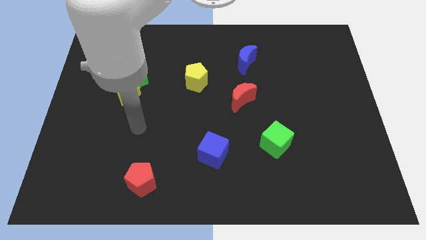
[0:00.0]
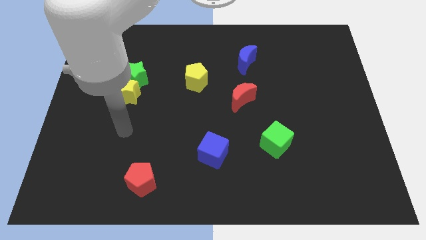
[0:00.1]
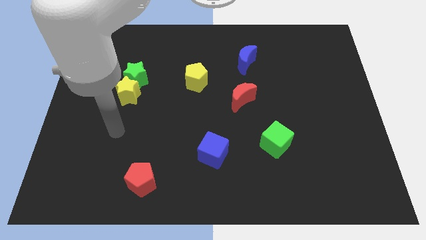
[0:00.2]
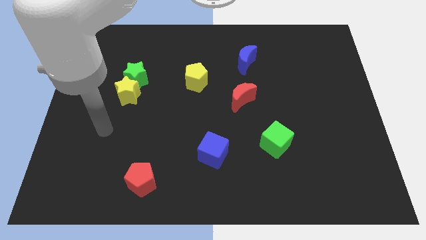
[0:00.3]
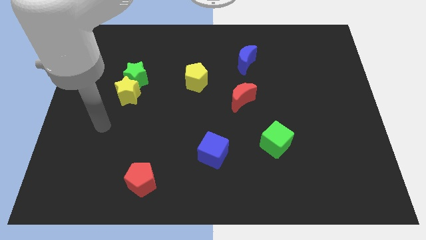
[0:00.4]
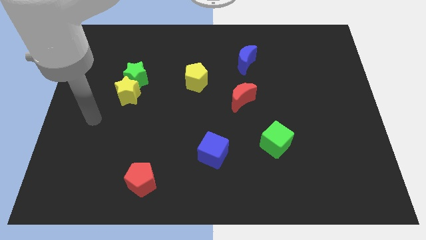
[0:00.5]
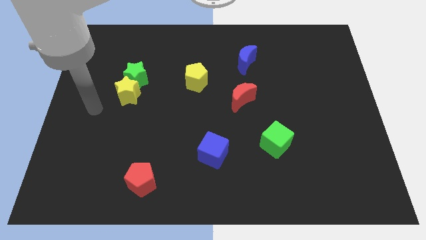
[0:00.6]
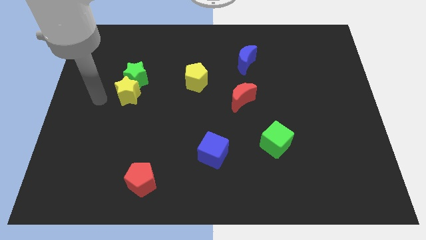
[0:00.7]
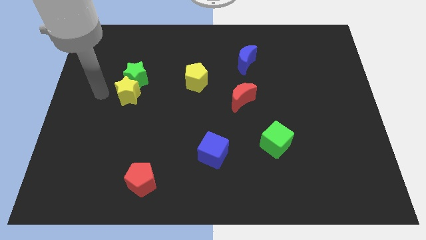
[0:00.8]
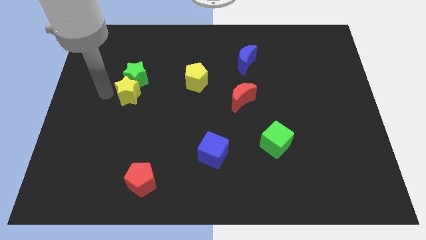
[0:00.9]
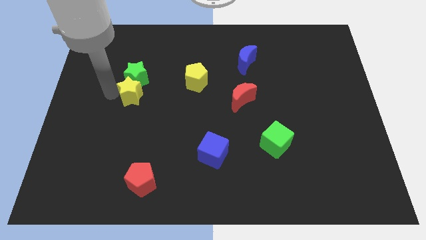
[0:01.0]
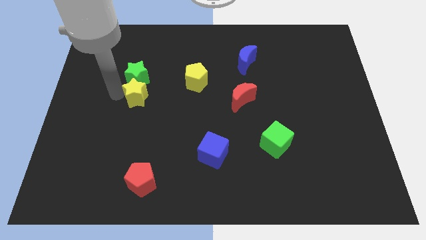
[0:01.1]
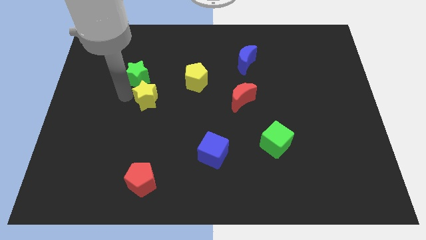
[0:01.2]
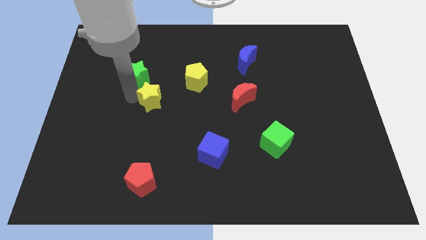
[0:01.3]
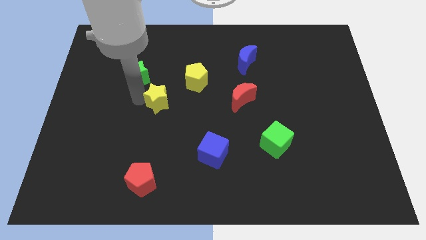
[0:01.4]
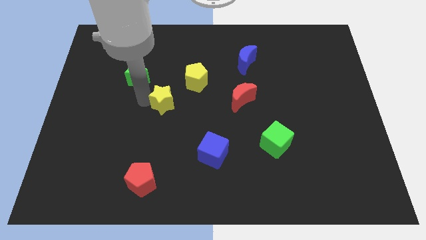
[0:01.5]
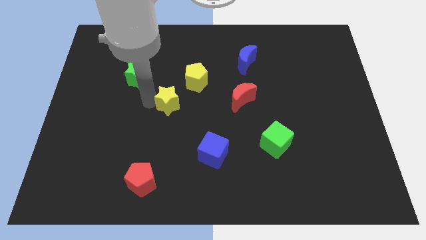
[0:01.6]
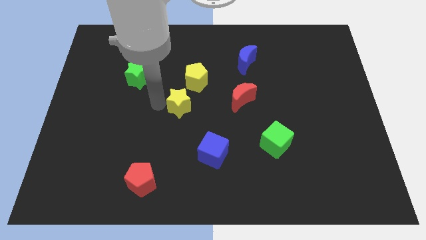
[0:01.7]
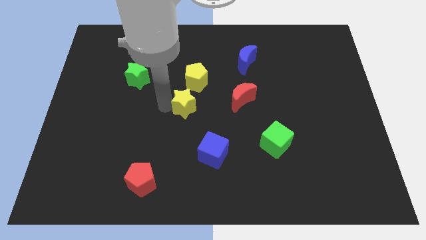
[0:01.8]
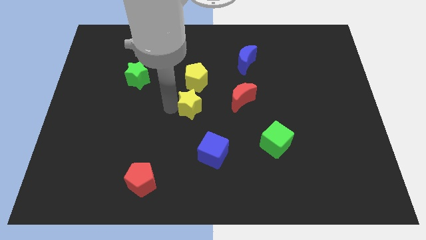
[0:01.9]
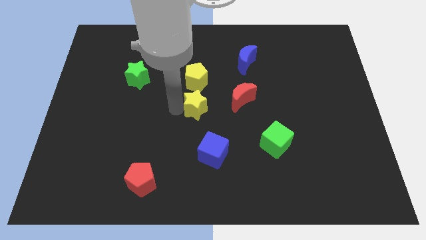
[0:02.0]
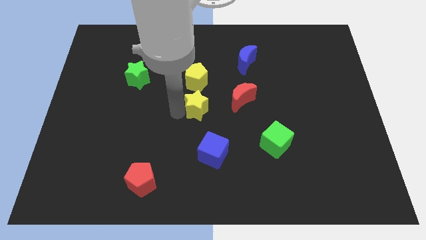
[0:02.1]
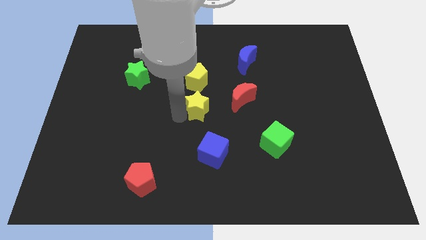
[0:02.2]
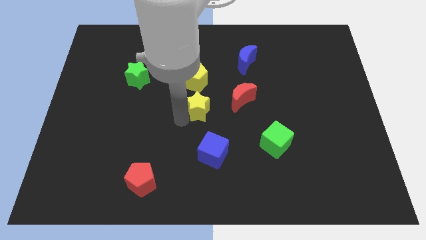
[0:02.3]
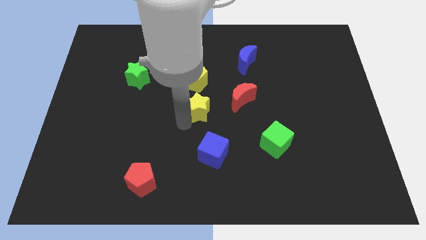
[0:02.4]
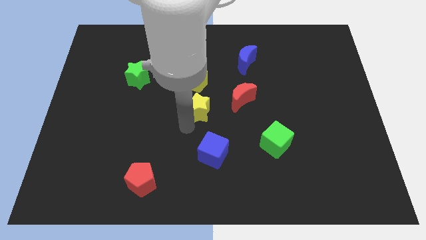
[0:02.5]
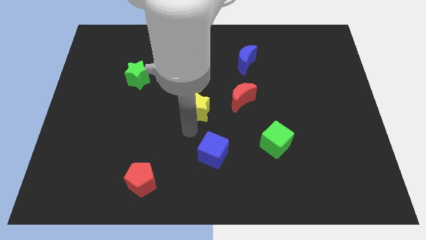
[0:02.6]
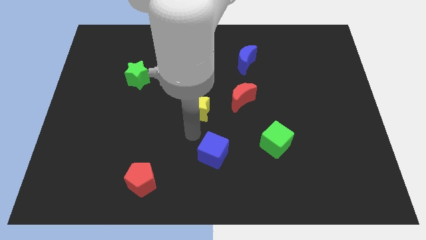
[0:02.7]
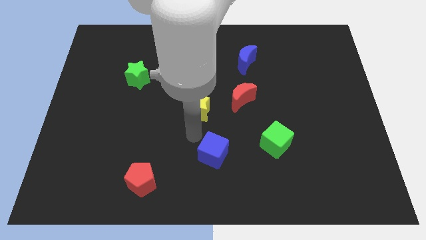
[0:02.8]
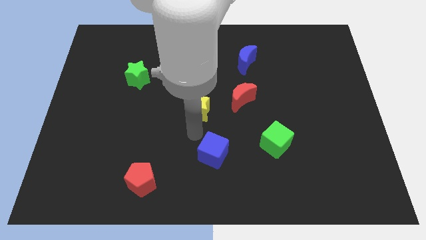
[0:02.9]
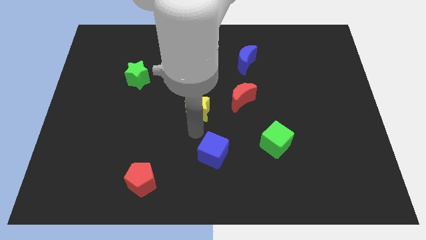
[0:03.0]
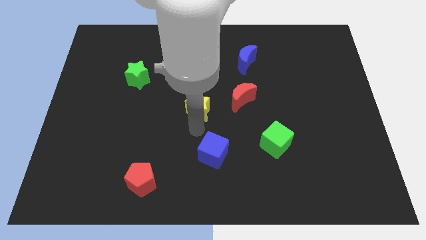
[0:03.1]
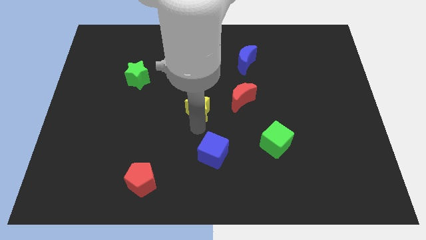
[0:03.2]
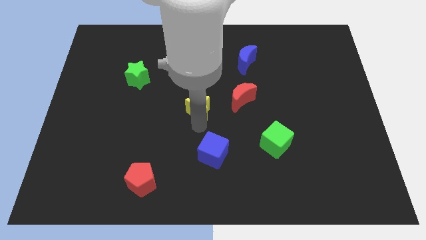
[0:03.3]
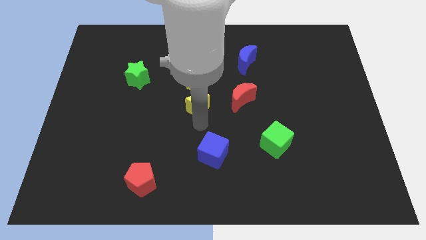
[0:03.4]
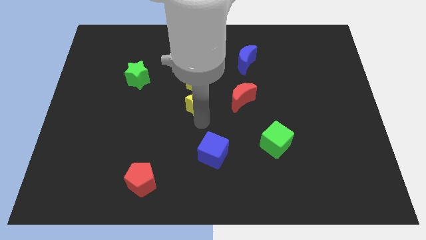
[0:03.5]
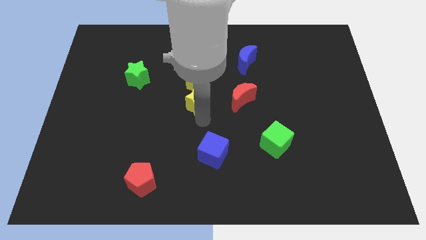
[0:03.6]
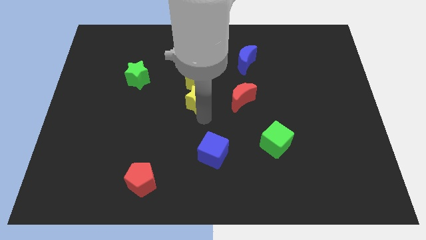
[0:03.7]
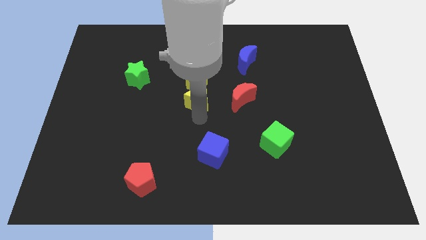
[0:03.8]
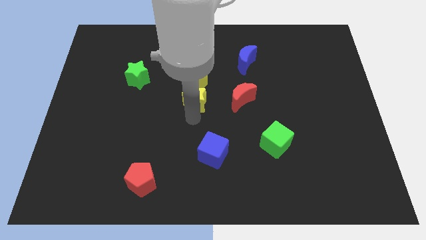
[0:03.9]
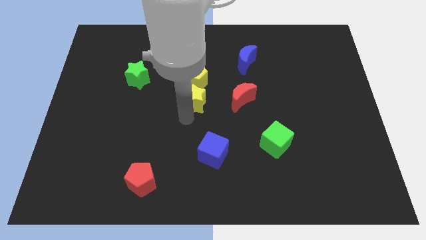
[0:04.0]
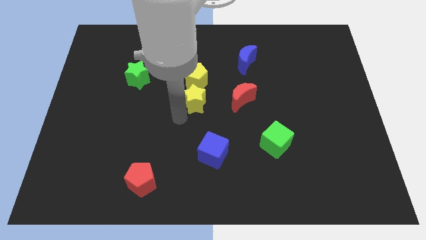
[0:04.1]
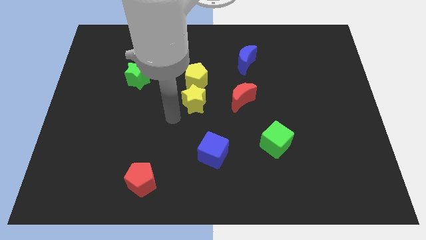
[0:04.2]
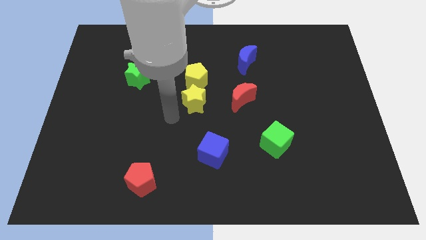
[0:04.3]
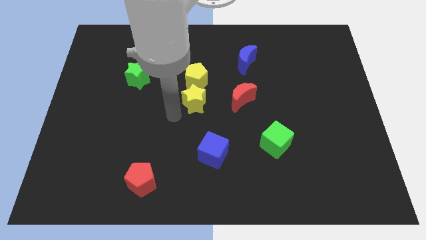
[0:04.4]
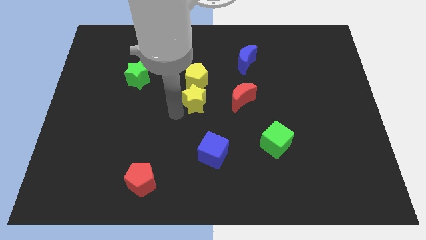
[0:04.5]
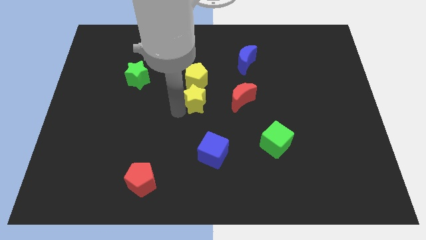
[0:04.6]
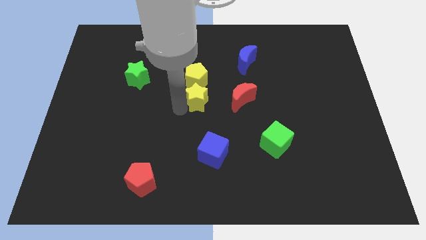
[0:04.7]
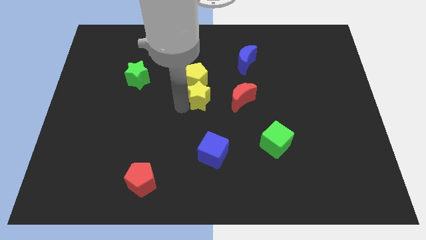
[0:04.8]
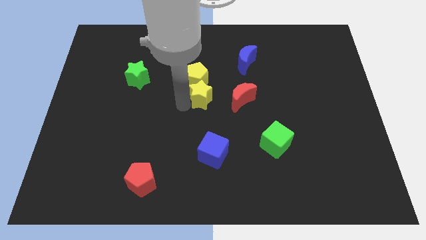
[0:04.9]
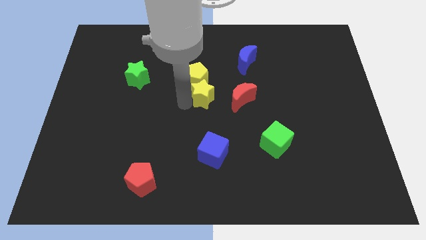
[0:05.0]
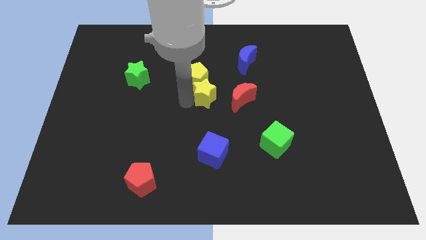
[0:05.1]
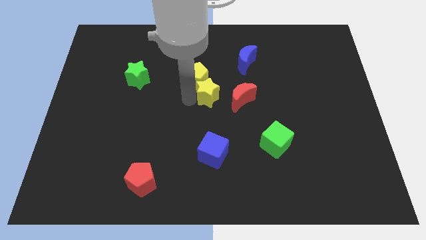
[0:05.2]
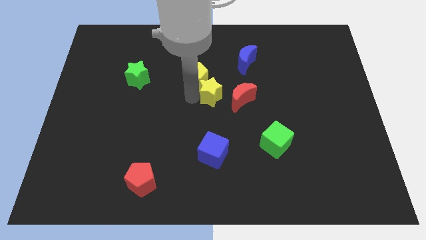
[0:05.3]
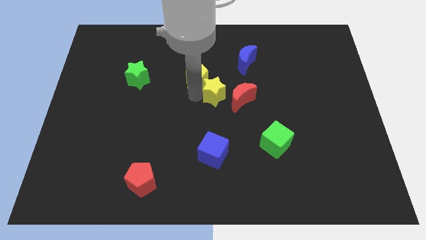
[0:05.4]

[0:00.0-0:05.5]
put the yellow star to the right side of the yellow pentagon
